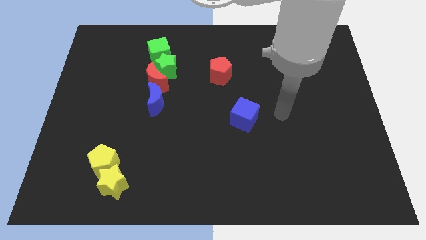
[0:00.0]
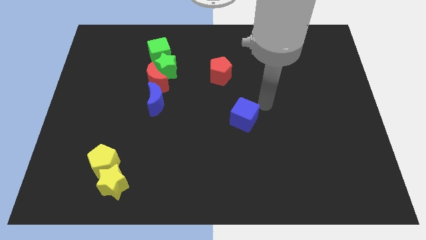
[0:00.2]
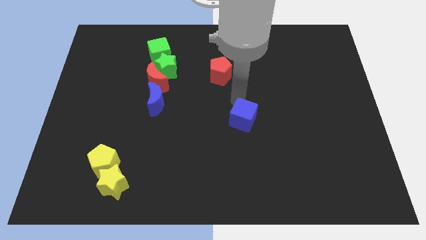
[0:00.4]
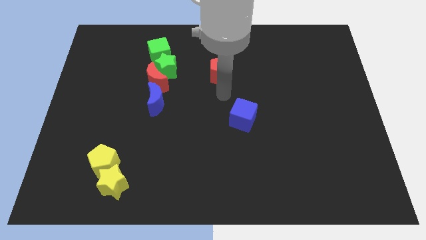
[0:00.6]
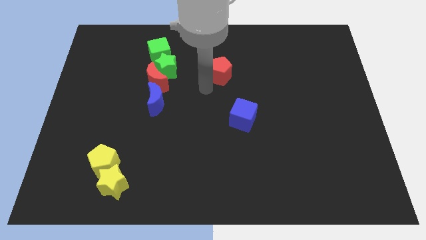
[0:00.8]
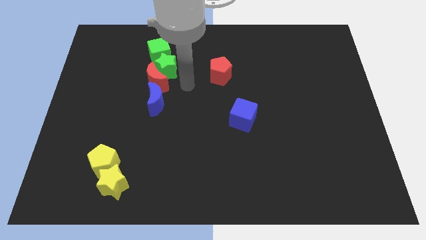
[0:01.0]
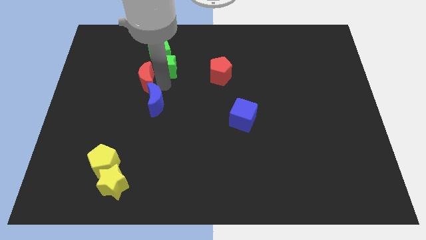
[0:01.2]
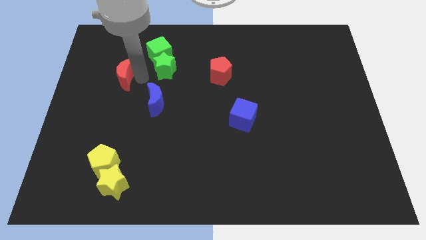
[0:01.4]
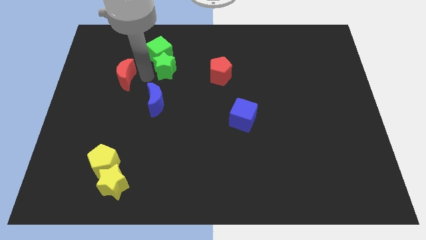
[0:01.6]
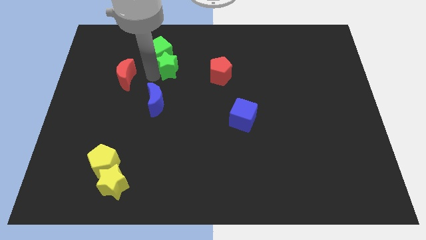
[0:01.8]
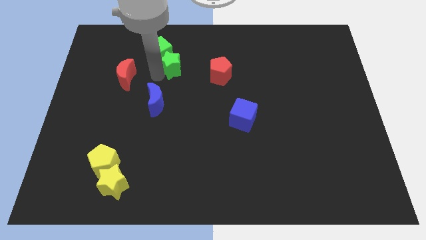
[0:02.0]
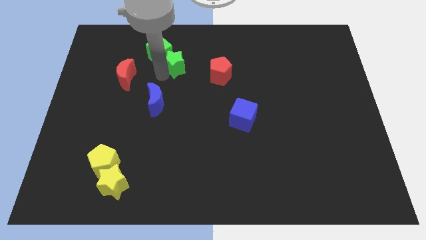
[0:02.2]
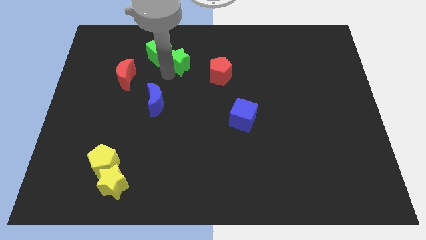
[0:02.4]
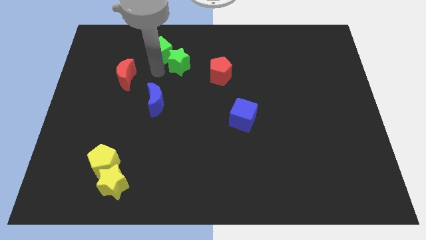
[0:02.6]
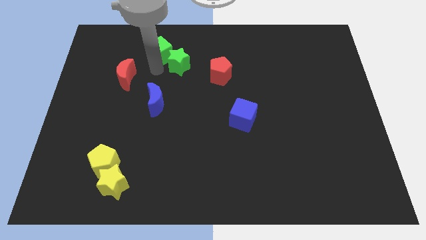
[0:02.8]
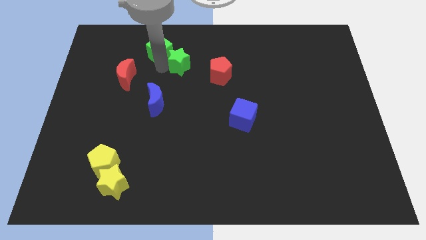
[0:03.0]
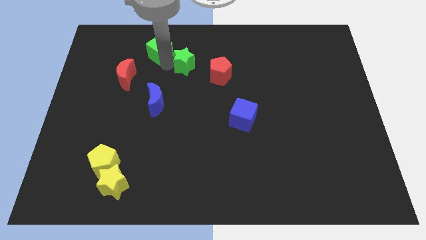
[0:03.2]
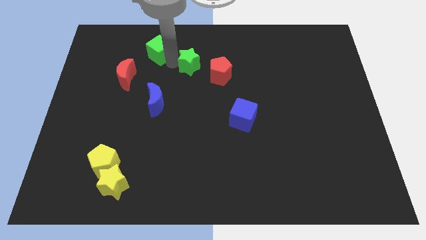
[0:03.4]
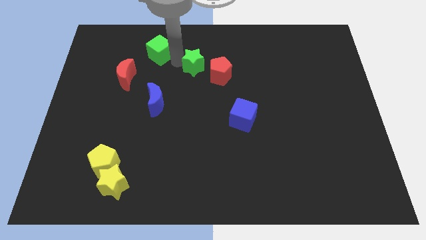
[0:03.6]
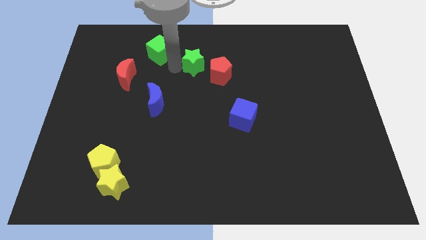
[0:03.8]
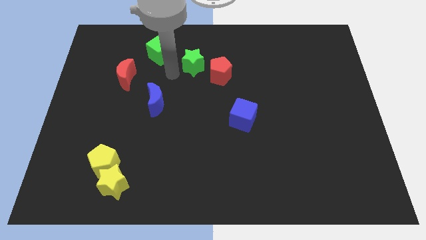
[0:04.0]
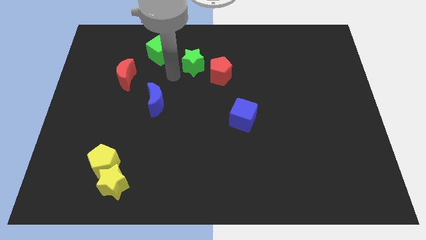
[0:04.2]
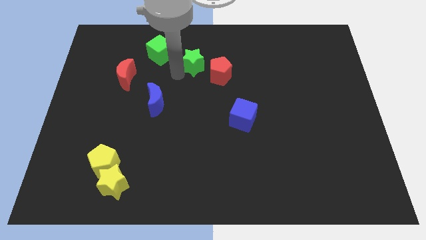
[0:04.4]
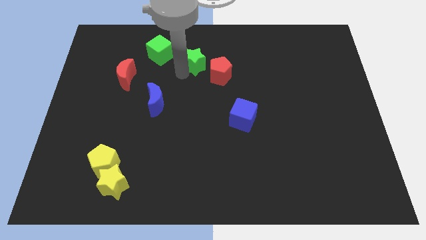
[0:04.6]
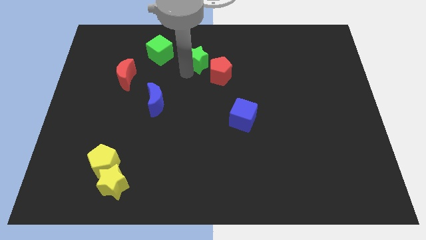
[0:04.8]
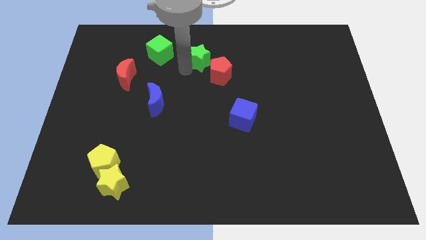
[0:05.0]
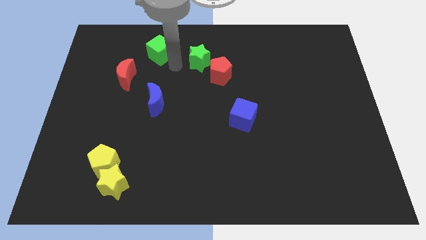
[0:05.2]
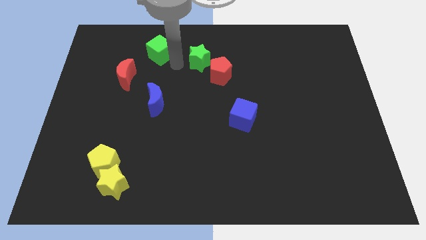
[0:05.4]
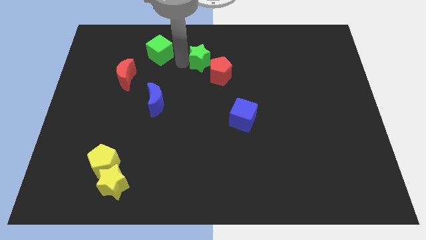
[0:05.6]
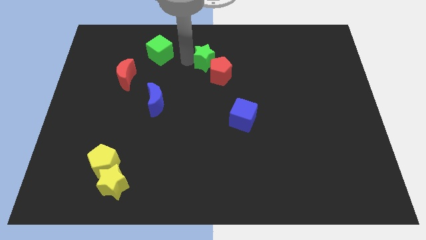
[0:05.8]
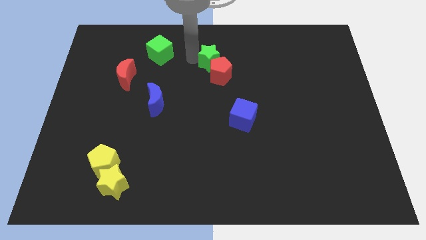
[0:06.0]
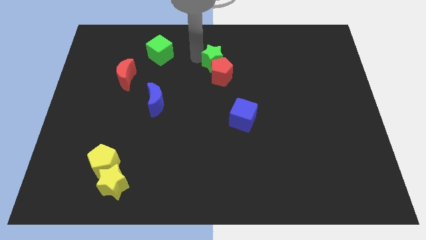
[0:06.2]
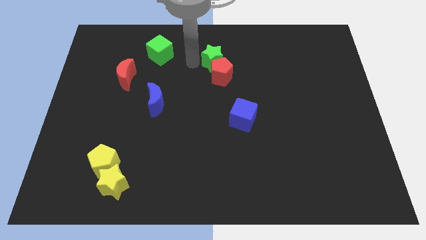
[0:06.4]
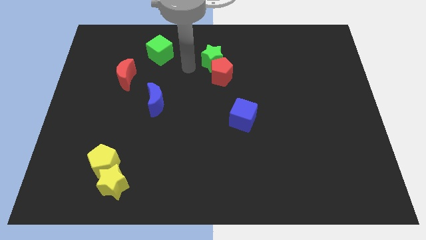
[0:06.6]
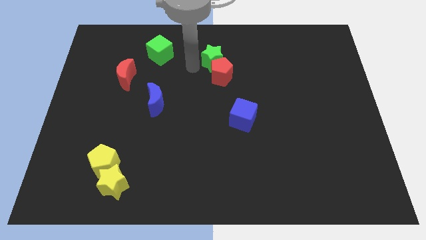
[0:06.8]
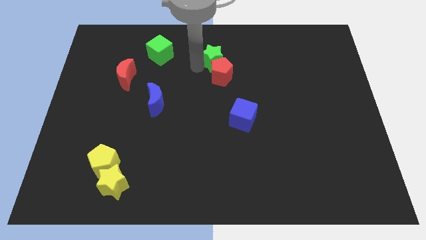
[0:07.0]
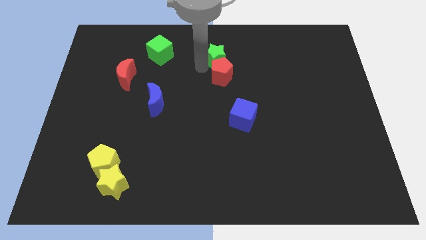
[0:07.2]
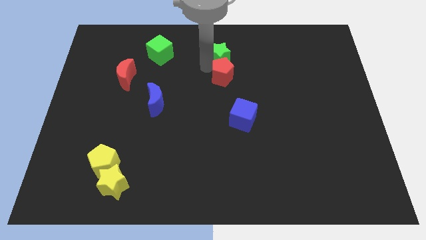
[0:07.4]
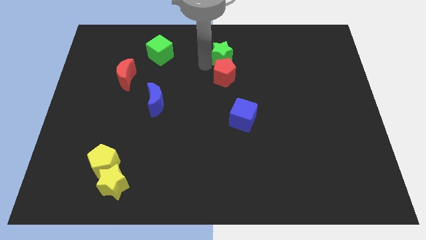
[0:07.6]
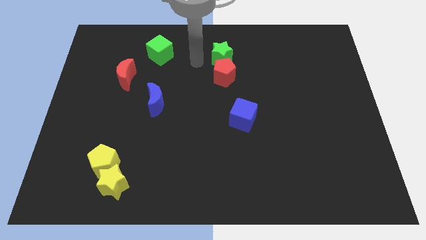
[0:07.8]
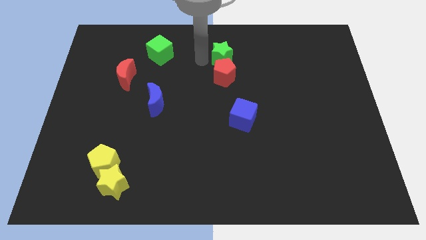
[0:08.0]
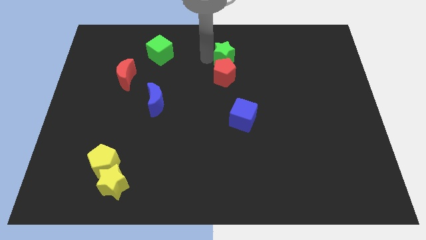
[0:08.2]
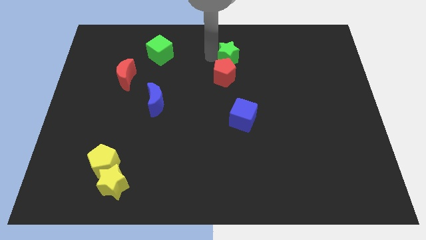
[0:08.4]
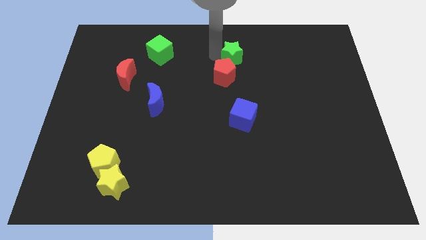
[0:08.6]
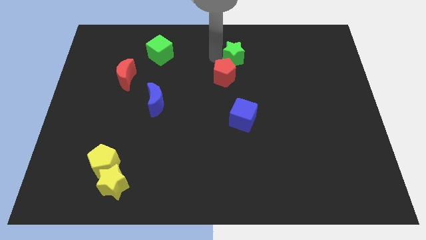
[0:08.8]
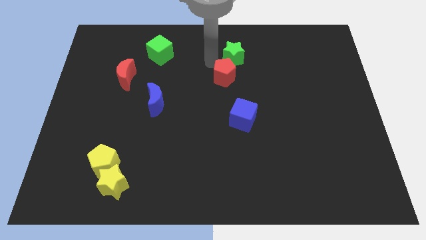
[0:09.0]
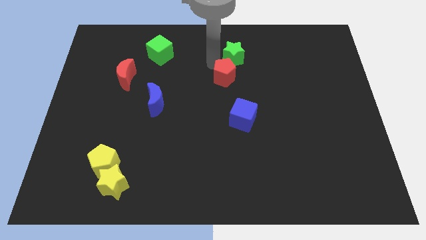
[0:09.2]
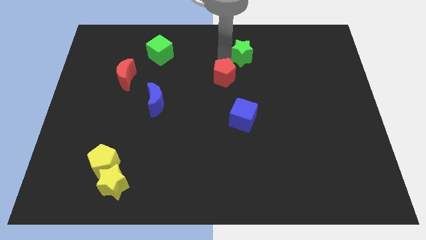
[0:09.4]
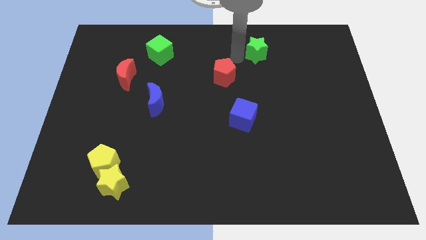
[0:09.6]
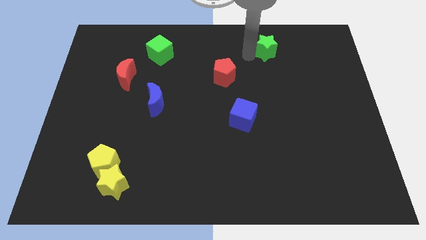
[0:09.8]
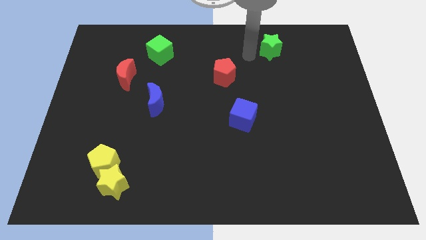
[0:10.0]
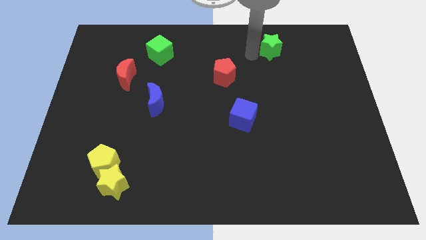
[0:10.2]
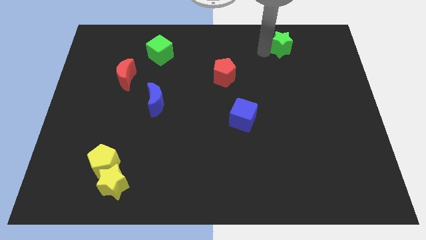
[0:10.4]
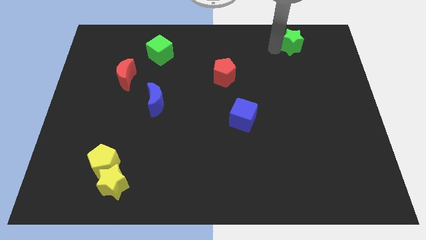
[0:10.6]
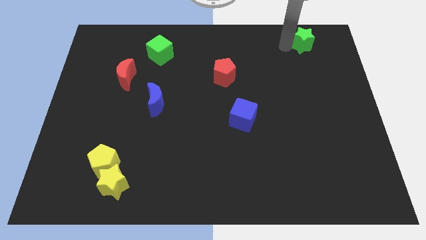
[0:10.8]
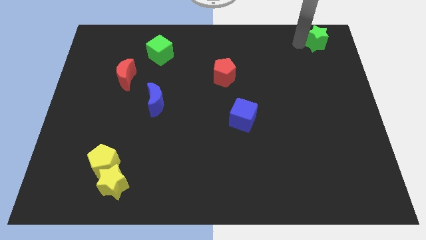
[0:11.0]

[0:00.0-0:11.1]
move the green star to the top right corner

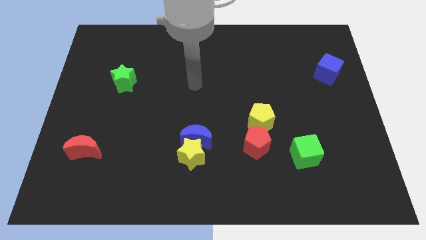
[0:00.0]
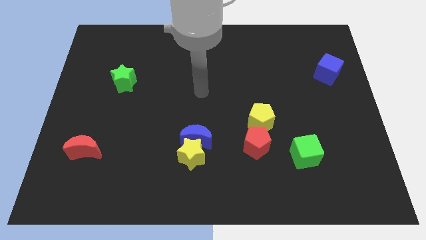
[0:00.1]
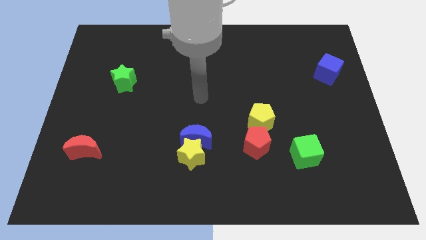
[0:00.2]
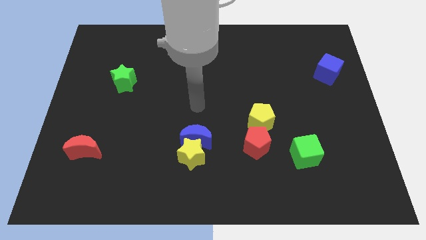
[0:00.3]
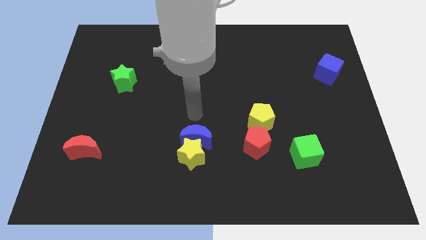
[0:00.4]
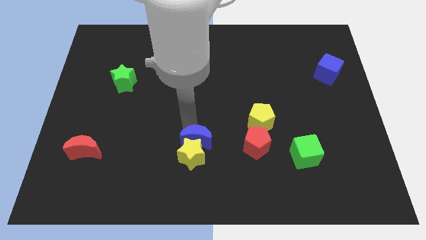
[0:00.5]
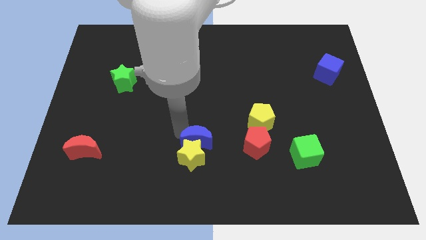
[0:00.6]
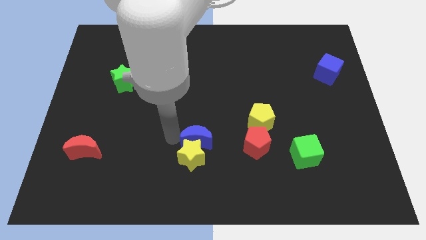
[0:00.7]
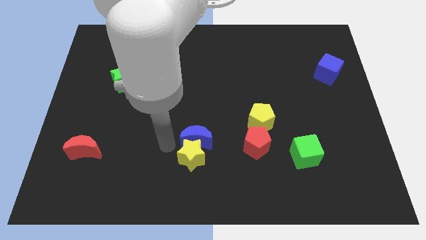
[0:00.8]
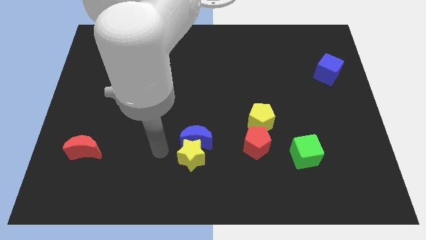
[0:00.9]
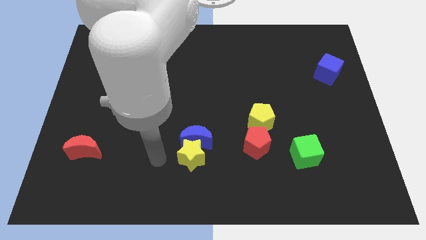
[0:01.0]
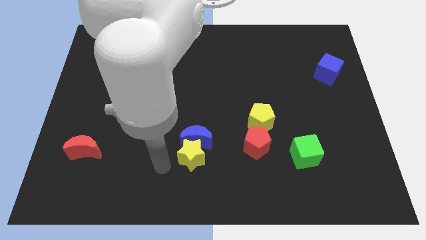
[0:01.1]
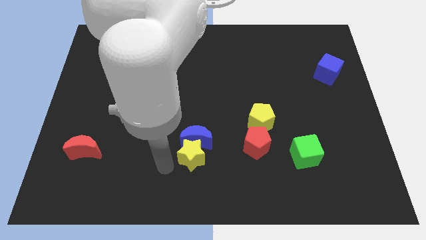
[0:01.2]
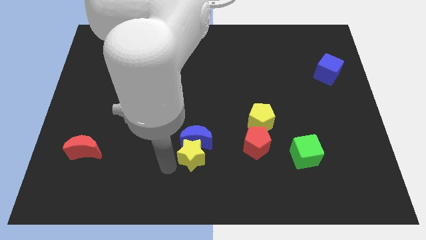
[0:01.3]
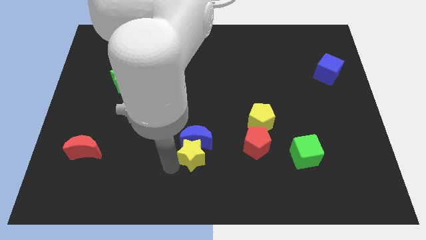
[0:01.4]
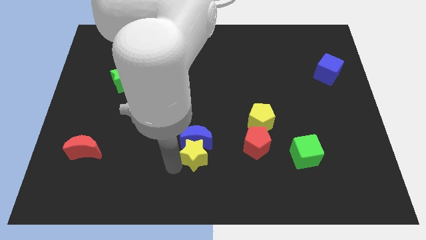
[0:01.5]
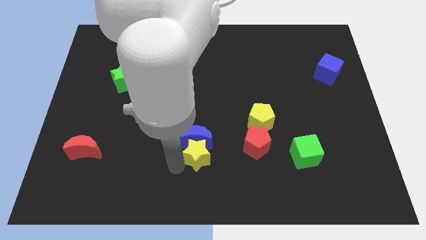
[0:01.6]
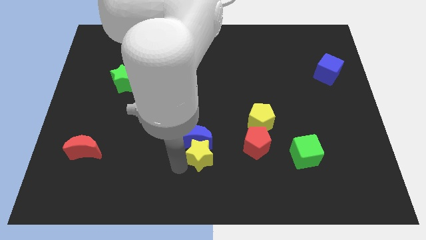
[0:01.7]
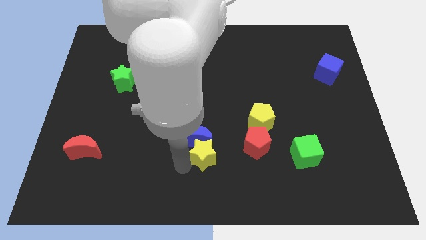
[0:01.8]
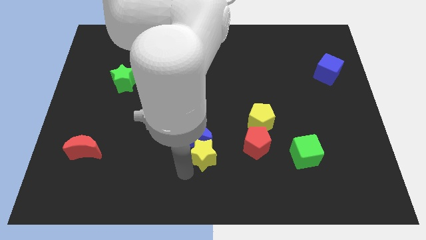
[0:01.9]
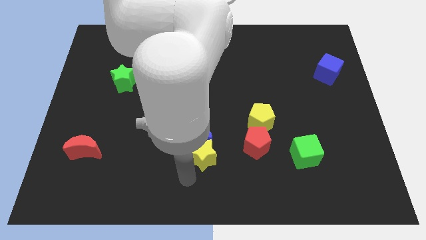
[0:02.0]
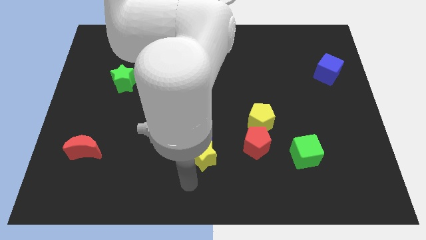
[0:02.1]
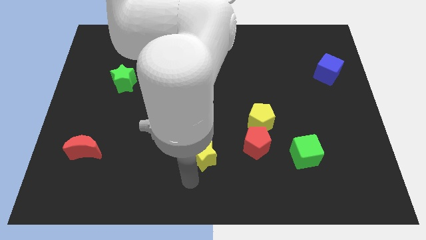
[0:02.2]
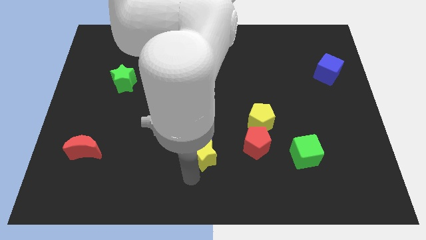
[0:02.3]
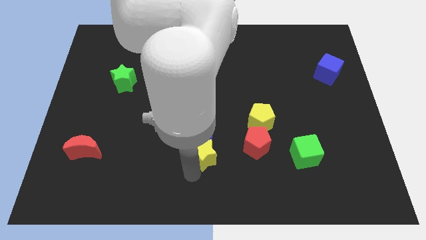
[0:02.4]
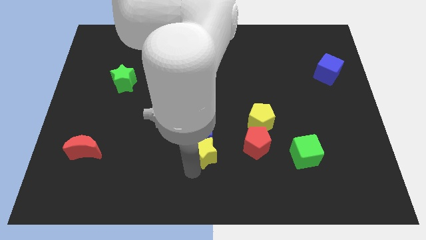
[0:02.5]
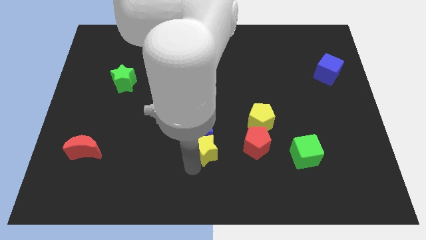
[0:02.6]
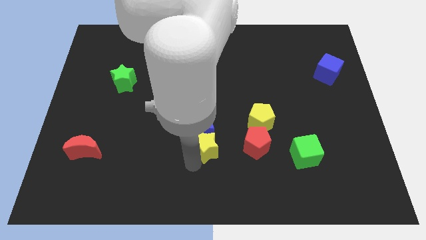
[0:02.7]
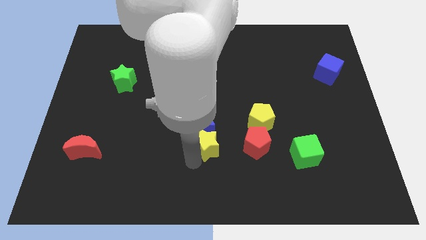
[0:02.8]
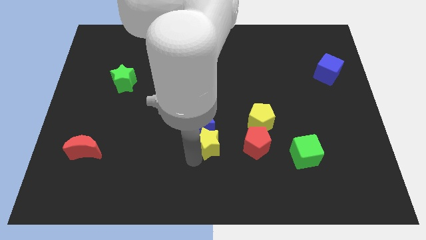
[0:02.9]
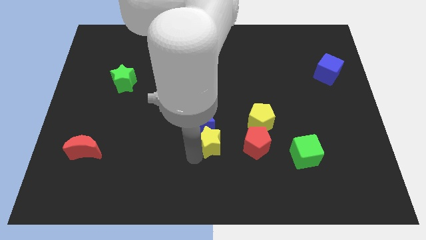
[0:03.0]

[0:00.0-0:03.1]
put the yellow star to the middle
